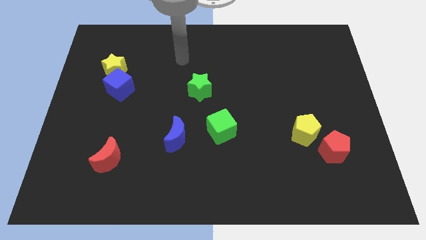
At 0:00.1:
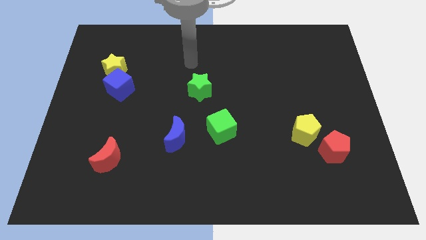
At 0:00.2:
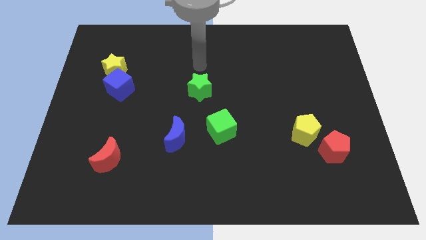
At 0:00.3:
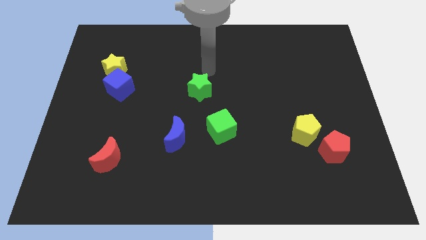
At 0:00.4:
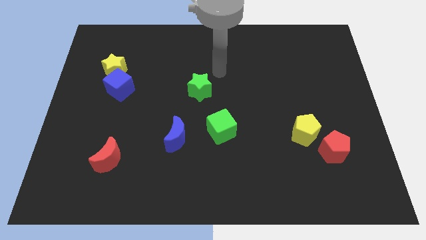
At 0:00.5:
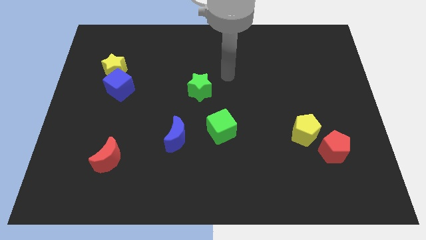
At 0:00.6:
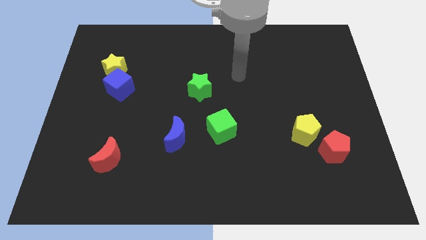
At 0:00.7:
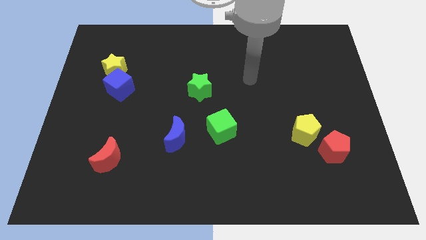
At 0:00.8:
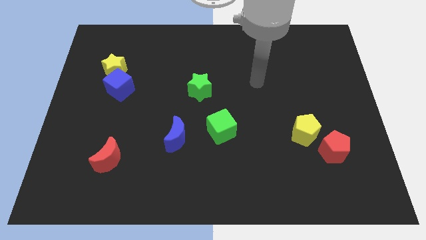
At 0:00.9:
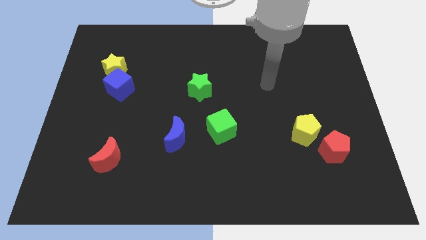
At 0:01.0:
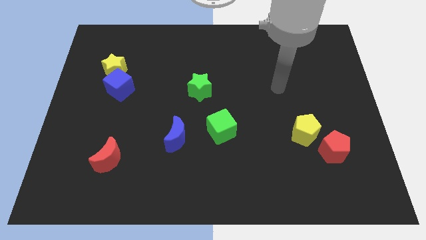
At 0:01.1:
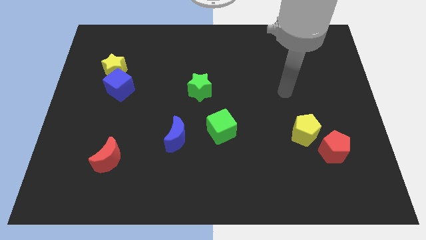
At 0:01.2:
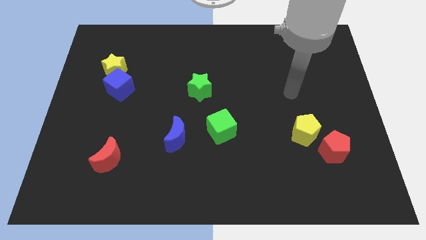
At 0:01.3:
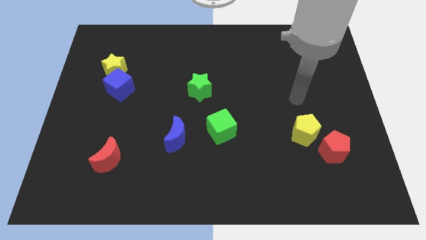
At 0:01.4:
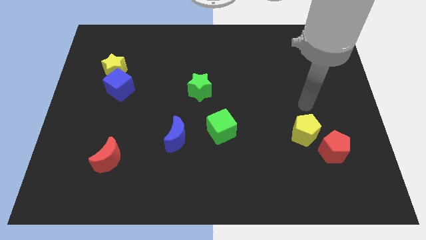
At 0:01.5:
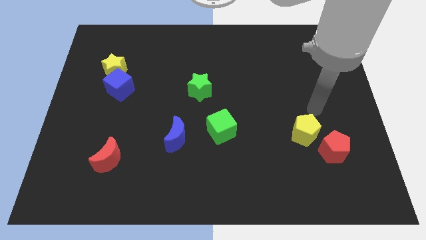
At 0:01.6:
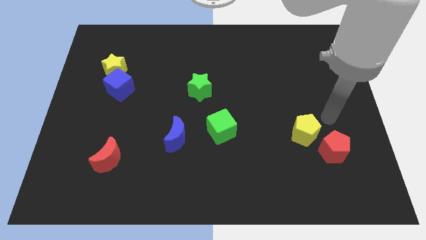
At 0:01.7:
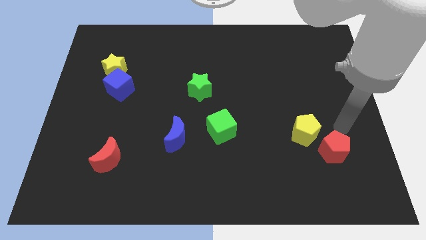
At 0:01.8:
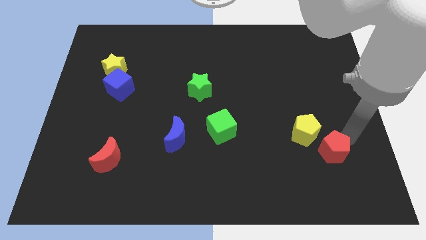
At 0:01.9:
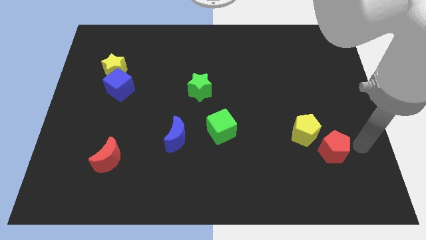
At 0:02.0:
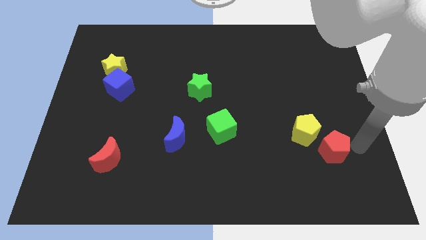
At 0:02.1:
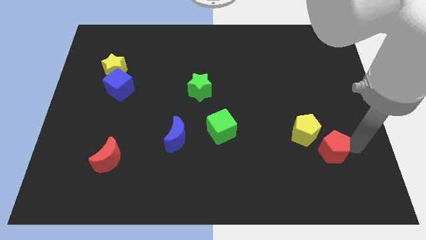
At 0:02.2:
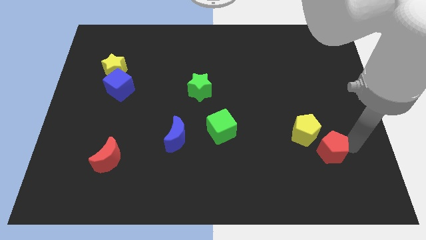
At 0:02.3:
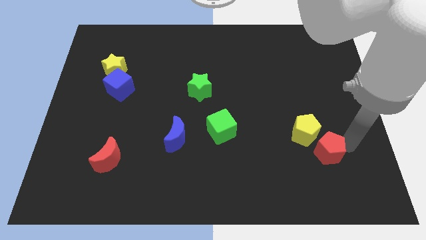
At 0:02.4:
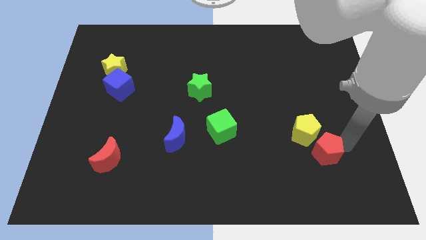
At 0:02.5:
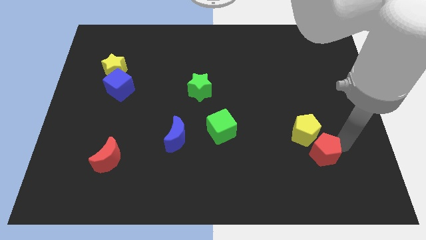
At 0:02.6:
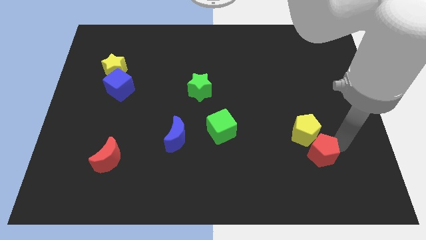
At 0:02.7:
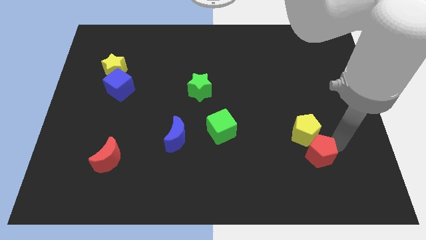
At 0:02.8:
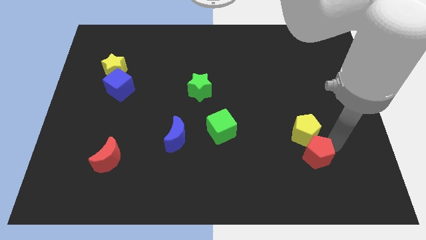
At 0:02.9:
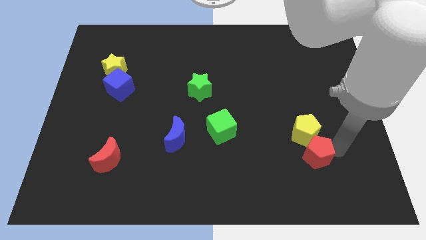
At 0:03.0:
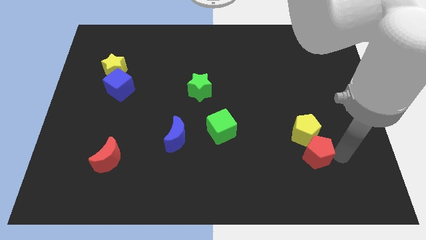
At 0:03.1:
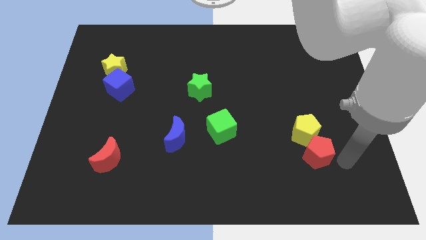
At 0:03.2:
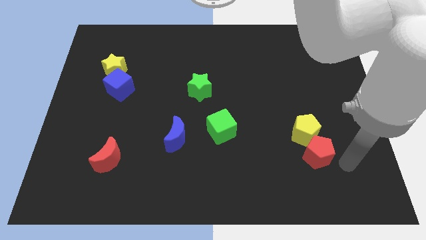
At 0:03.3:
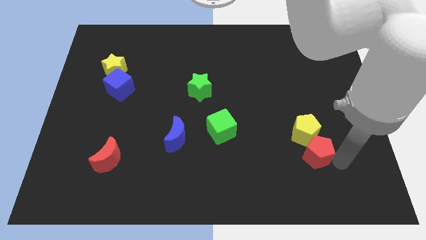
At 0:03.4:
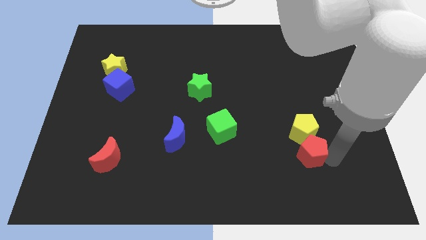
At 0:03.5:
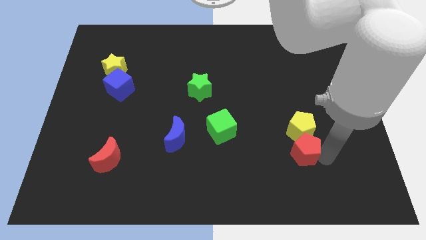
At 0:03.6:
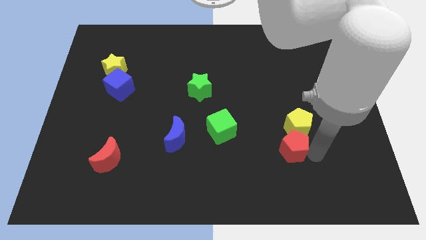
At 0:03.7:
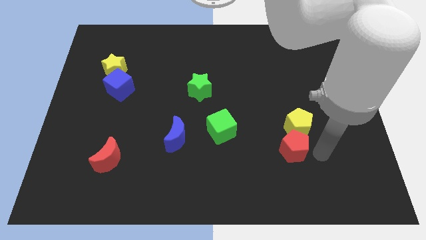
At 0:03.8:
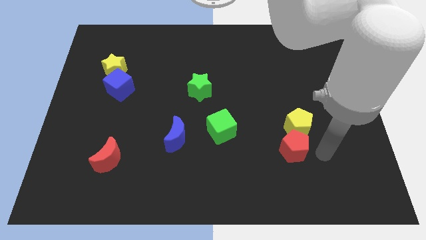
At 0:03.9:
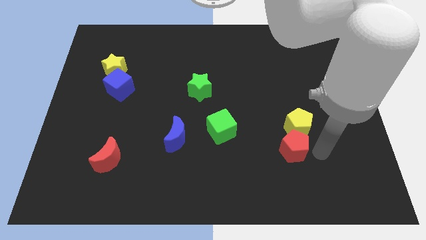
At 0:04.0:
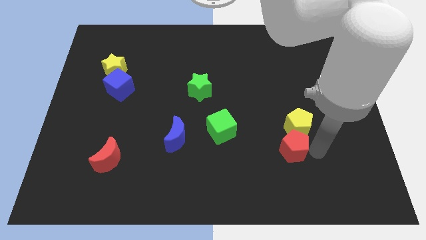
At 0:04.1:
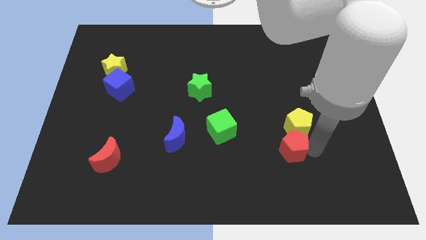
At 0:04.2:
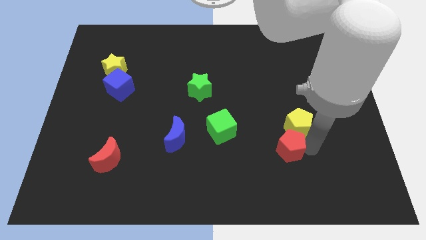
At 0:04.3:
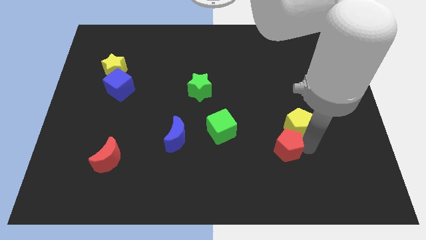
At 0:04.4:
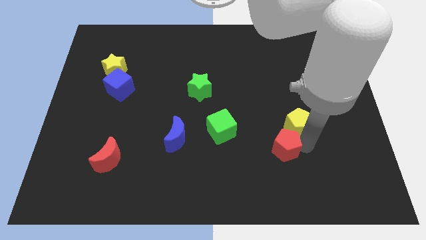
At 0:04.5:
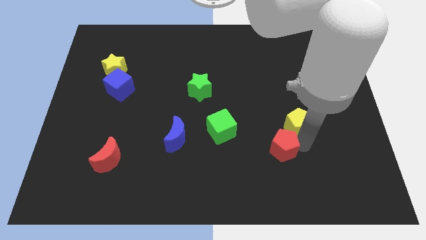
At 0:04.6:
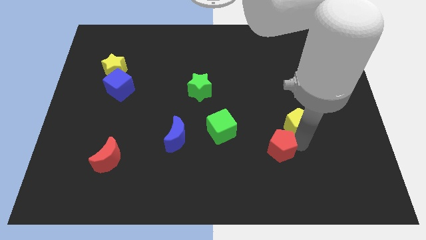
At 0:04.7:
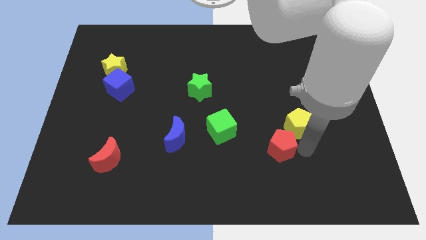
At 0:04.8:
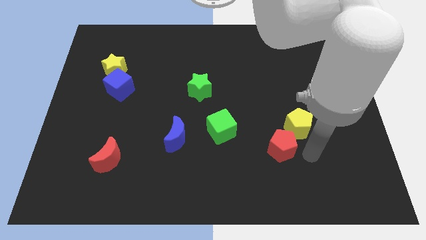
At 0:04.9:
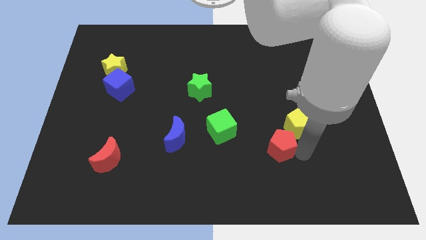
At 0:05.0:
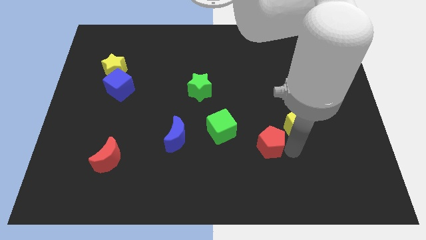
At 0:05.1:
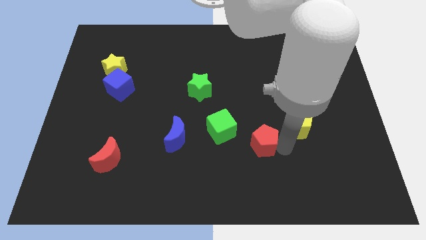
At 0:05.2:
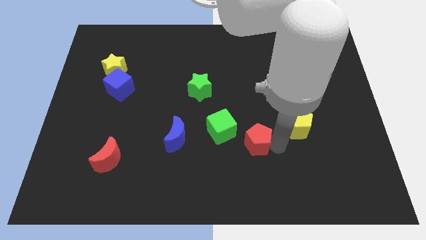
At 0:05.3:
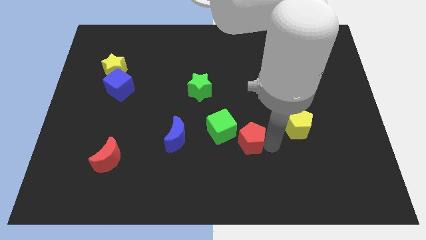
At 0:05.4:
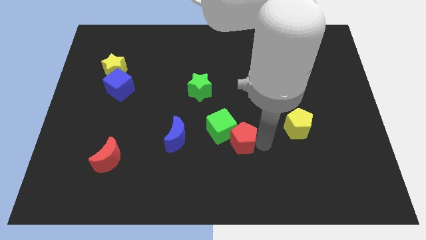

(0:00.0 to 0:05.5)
put the red pentagon next to the green cube
